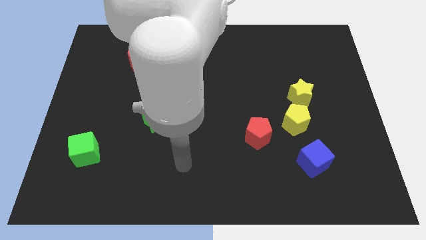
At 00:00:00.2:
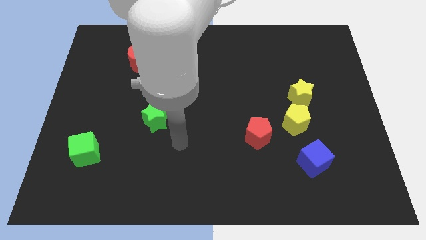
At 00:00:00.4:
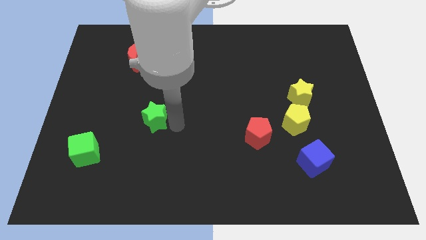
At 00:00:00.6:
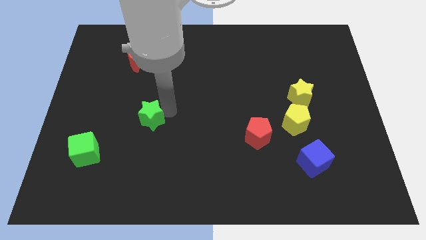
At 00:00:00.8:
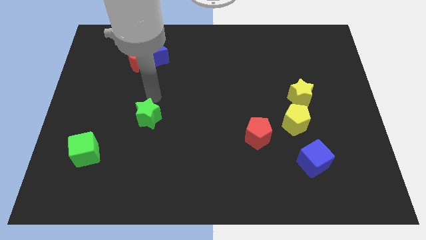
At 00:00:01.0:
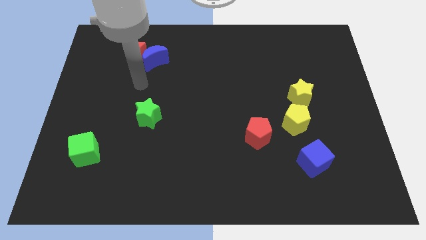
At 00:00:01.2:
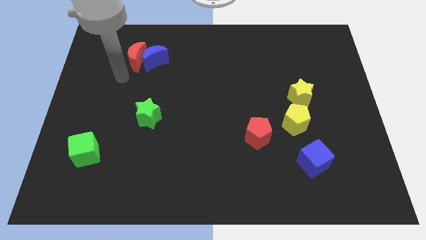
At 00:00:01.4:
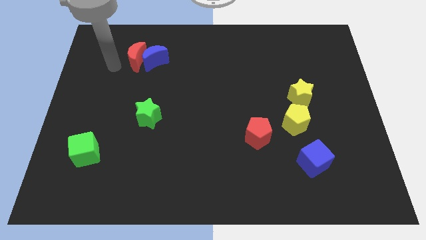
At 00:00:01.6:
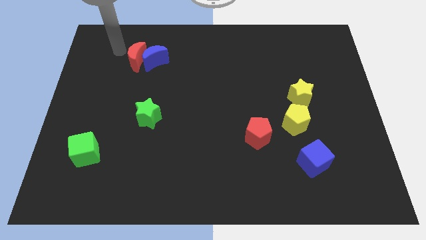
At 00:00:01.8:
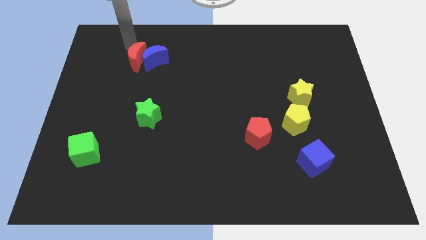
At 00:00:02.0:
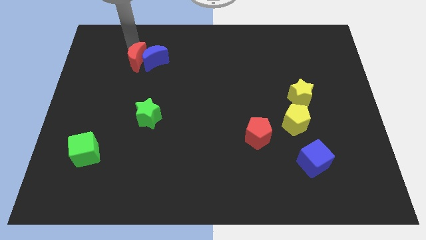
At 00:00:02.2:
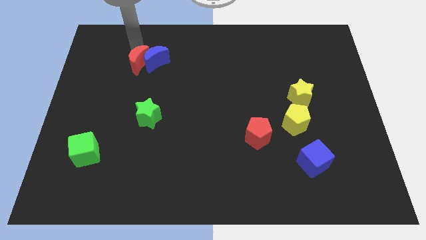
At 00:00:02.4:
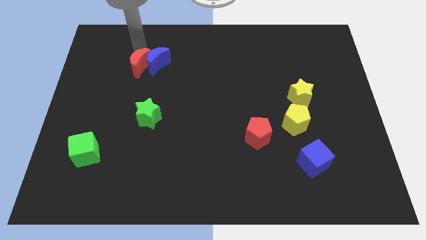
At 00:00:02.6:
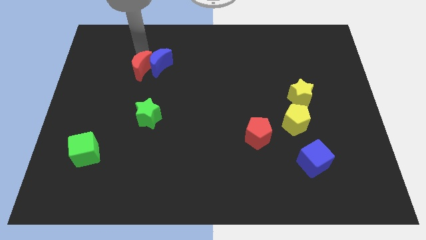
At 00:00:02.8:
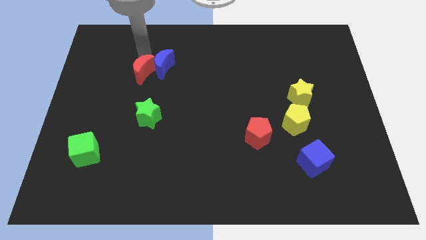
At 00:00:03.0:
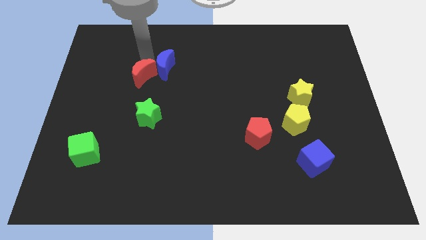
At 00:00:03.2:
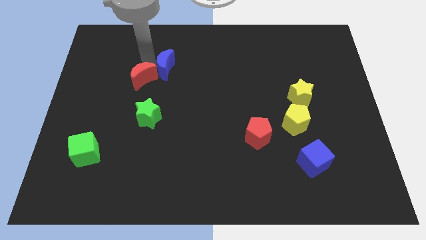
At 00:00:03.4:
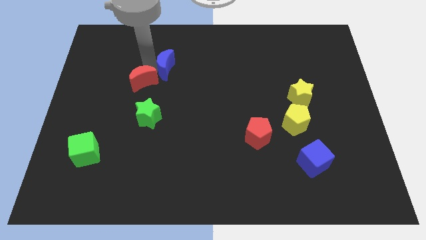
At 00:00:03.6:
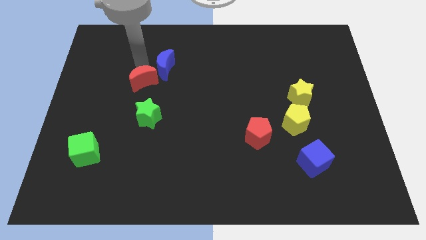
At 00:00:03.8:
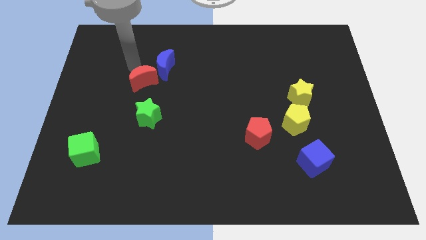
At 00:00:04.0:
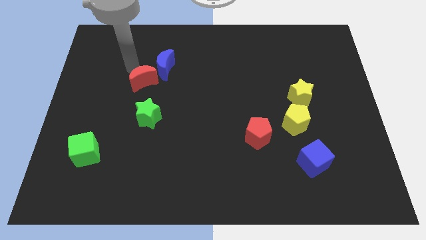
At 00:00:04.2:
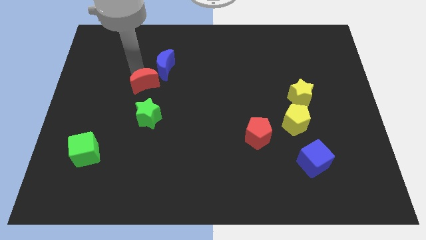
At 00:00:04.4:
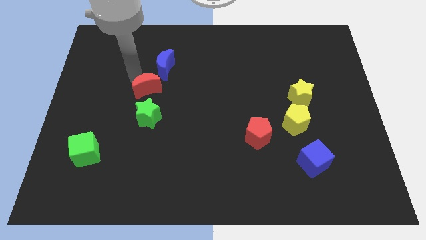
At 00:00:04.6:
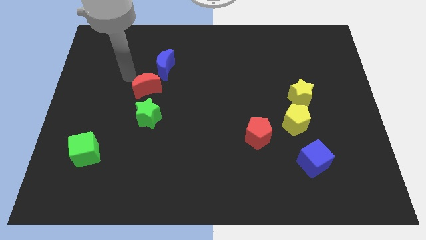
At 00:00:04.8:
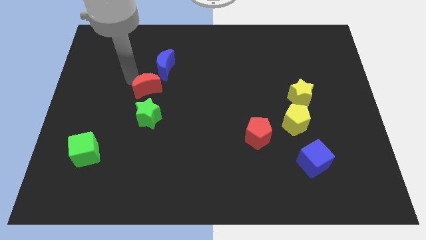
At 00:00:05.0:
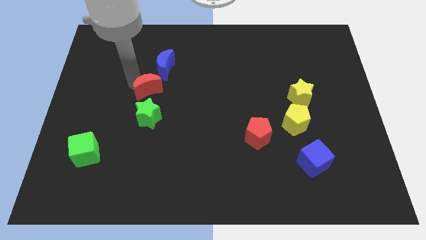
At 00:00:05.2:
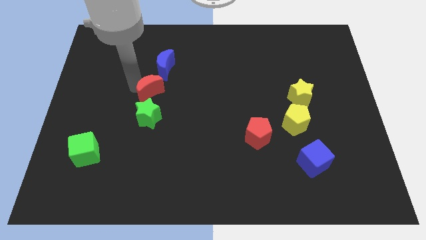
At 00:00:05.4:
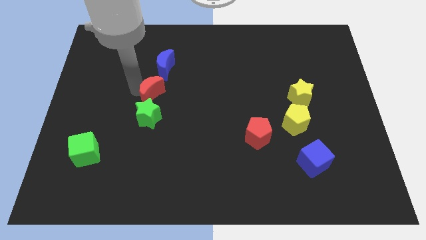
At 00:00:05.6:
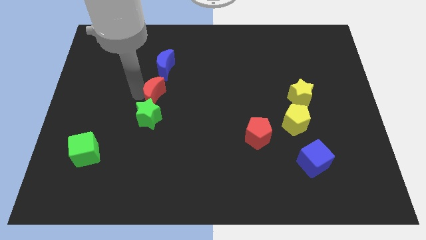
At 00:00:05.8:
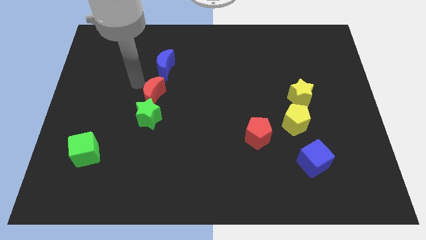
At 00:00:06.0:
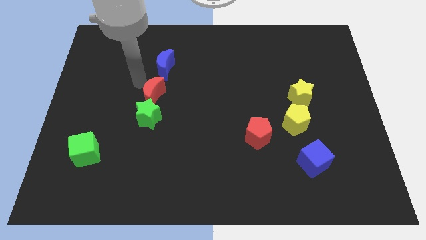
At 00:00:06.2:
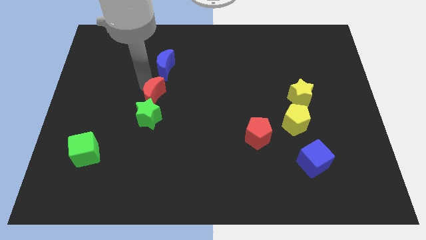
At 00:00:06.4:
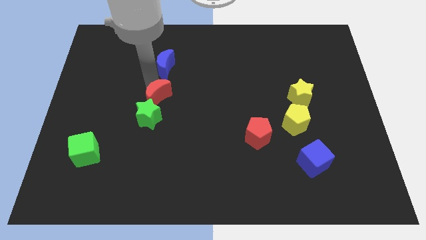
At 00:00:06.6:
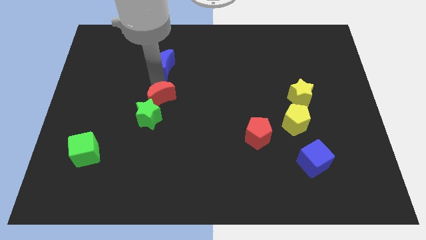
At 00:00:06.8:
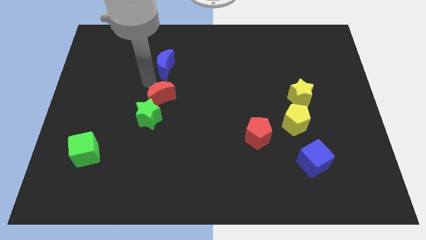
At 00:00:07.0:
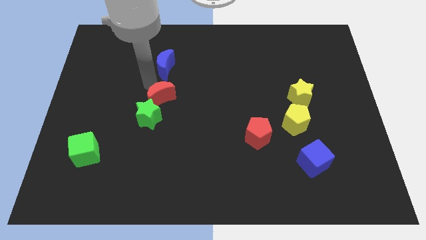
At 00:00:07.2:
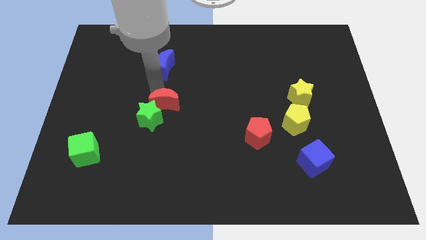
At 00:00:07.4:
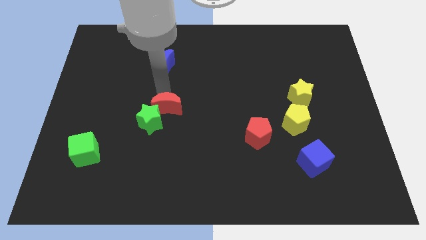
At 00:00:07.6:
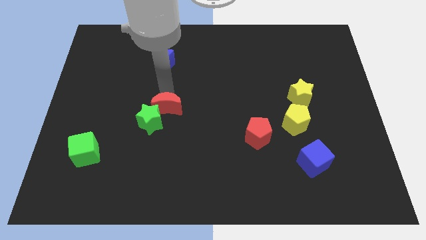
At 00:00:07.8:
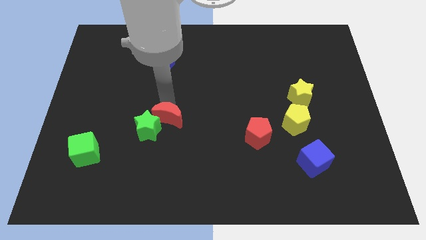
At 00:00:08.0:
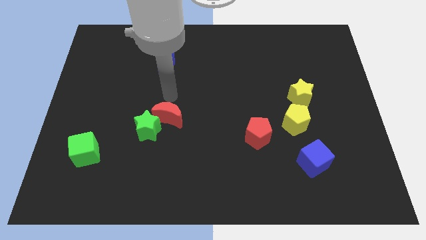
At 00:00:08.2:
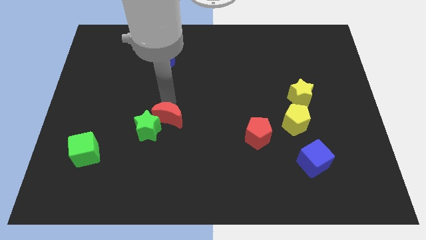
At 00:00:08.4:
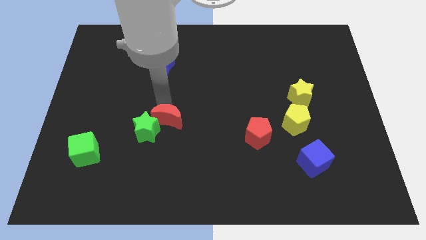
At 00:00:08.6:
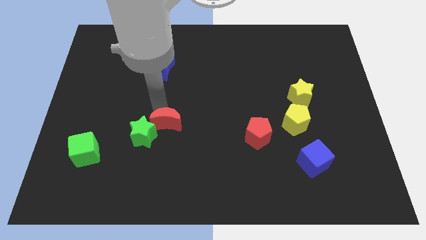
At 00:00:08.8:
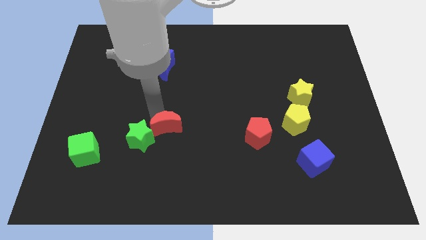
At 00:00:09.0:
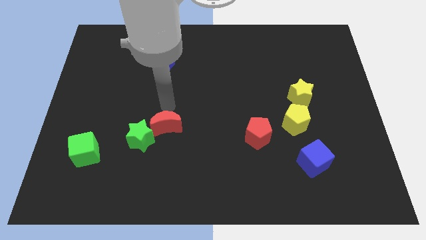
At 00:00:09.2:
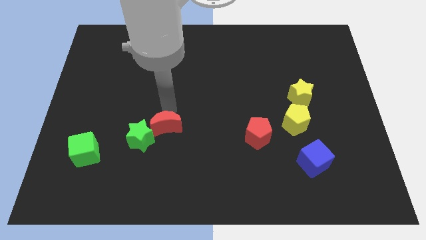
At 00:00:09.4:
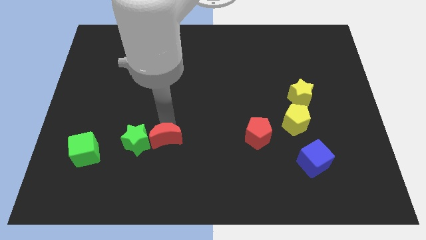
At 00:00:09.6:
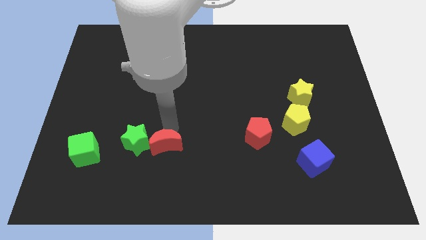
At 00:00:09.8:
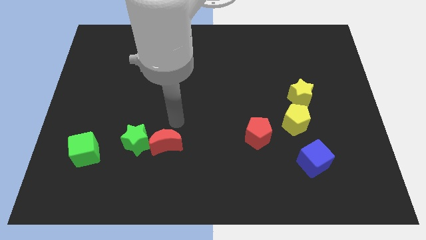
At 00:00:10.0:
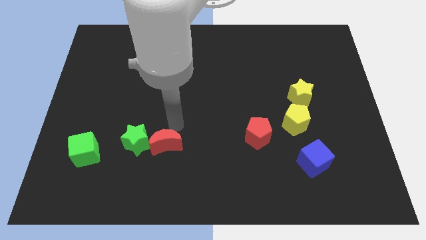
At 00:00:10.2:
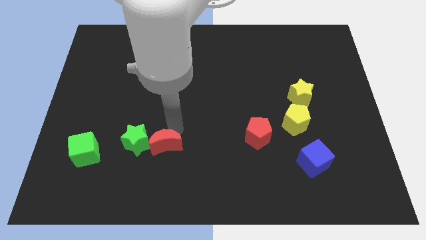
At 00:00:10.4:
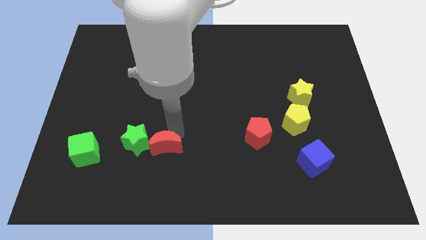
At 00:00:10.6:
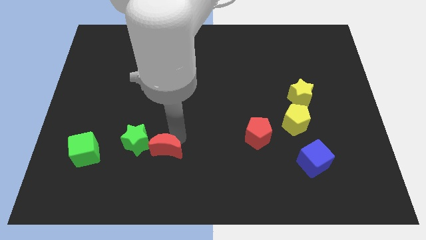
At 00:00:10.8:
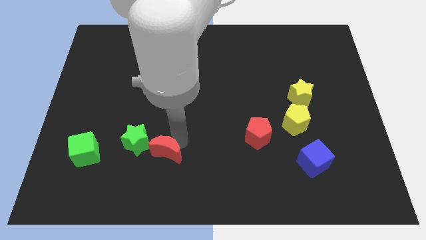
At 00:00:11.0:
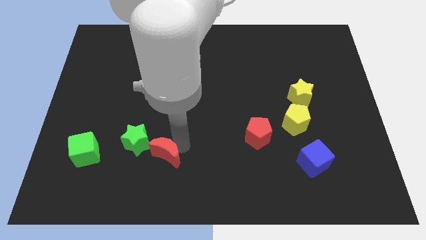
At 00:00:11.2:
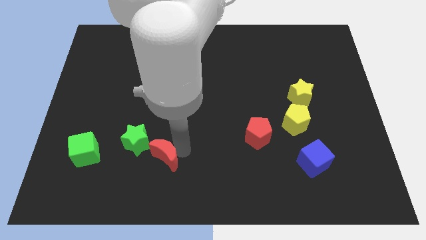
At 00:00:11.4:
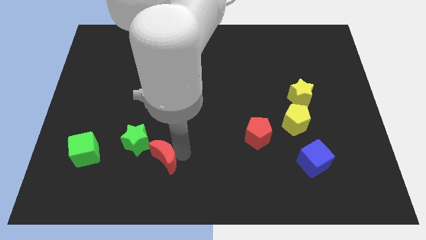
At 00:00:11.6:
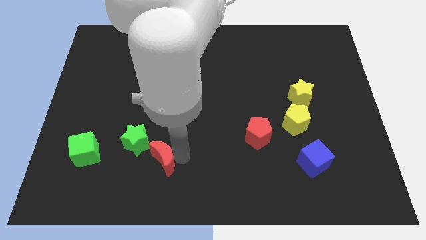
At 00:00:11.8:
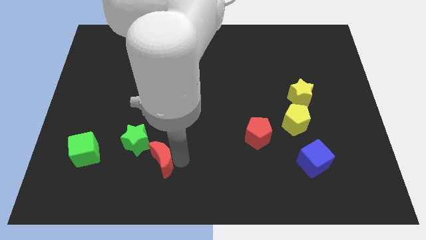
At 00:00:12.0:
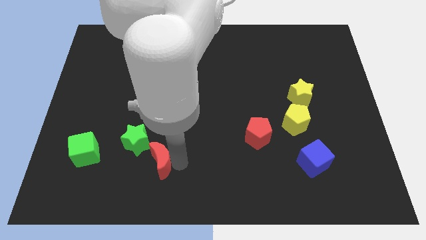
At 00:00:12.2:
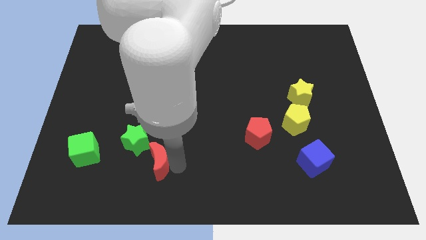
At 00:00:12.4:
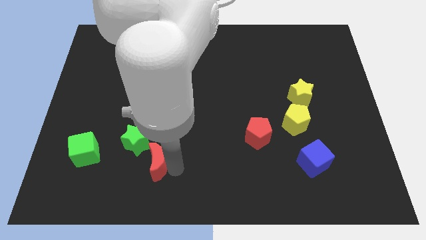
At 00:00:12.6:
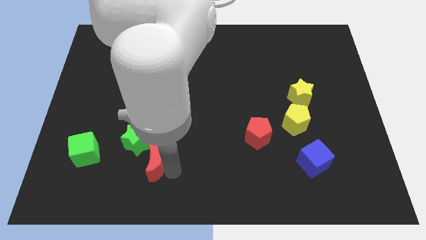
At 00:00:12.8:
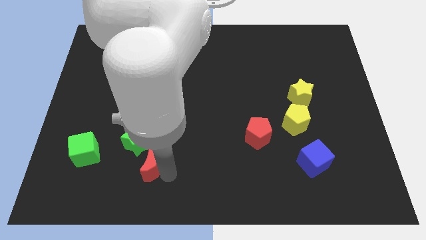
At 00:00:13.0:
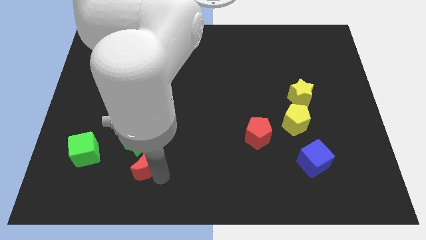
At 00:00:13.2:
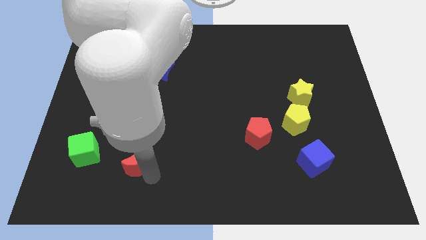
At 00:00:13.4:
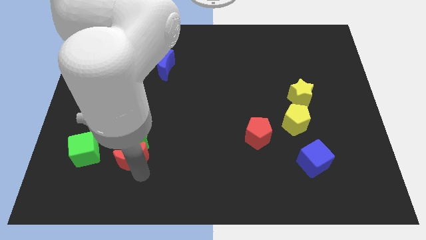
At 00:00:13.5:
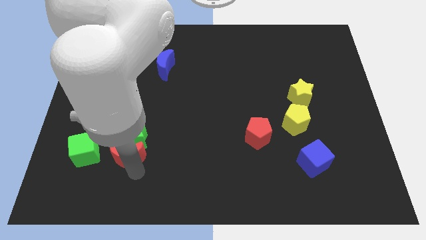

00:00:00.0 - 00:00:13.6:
push the red moon diagonally down and to the right of the green star
